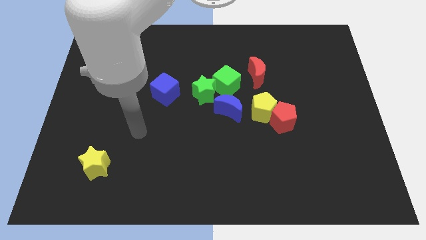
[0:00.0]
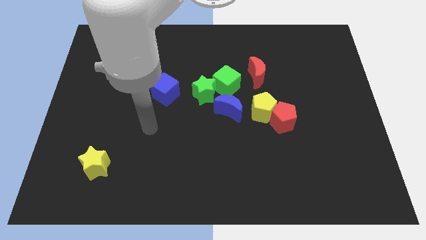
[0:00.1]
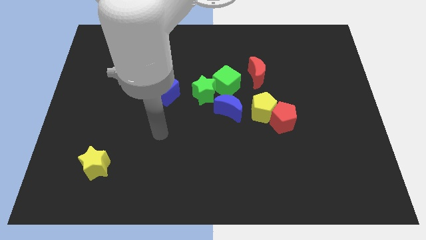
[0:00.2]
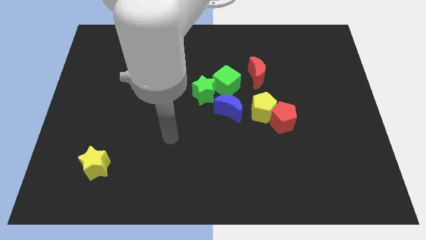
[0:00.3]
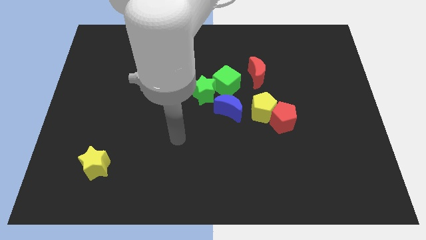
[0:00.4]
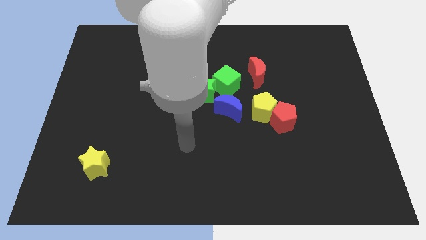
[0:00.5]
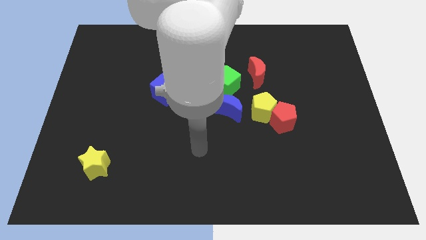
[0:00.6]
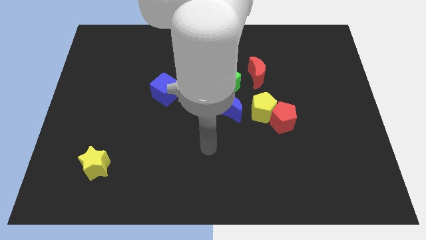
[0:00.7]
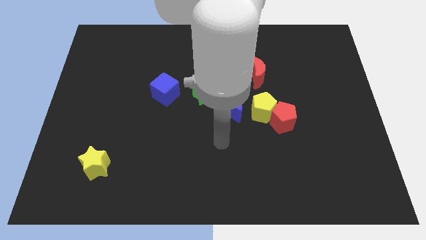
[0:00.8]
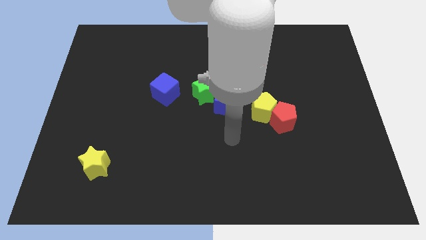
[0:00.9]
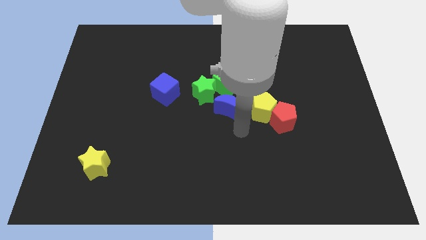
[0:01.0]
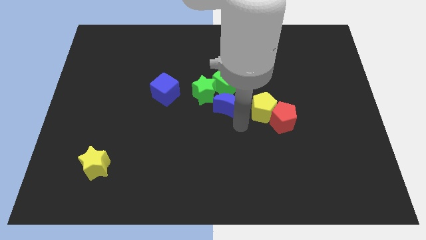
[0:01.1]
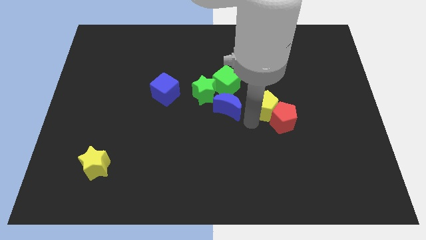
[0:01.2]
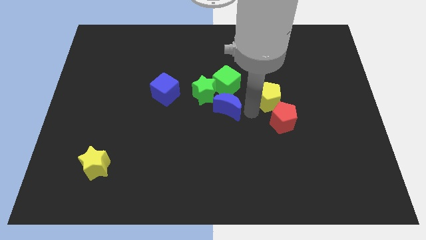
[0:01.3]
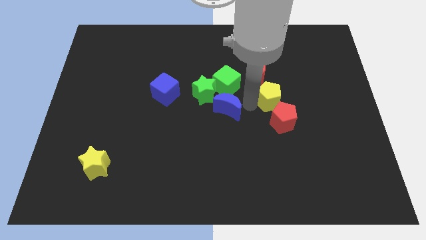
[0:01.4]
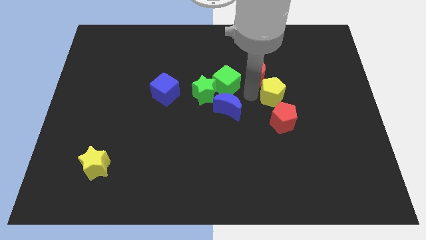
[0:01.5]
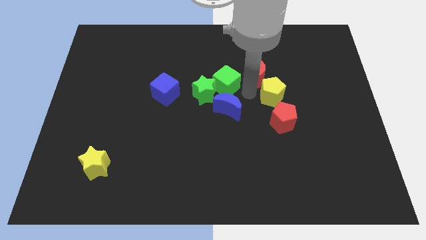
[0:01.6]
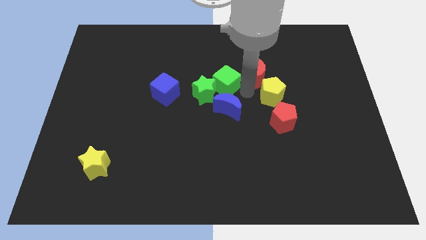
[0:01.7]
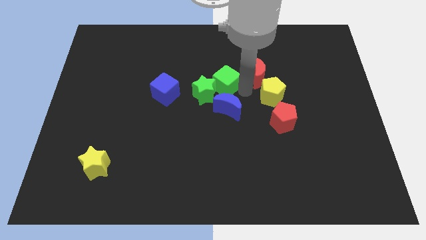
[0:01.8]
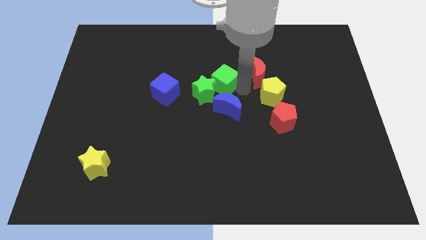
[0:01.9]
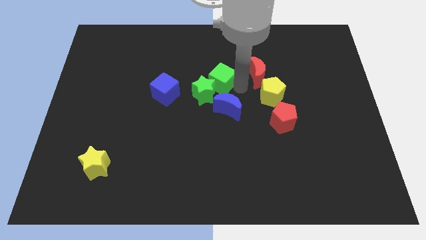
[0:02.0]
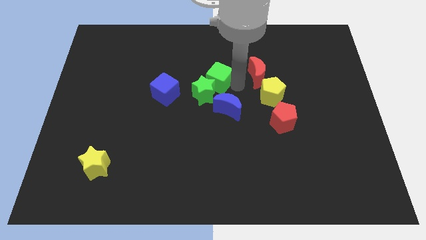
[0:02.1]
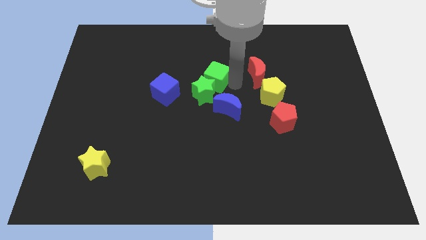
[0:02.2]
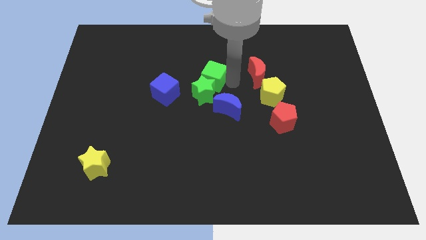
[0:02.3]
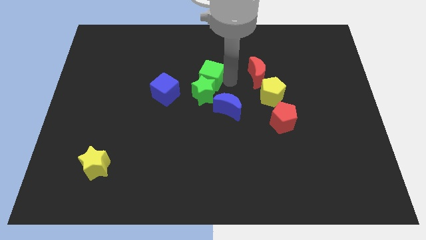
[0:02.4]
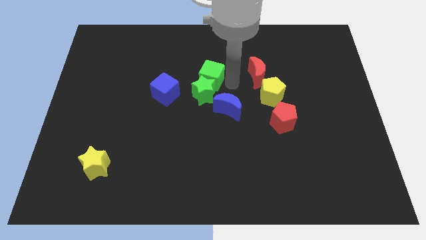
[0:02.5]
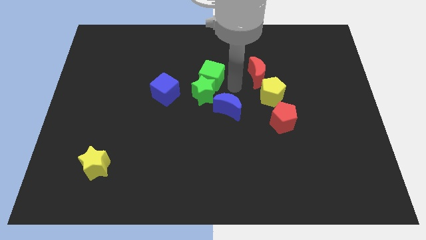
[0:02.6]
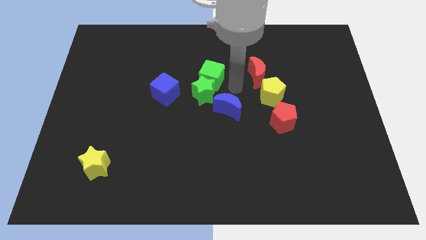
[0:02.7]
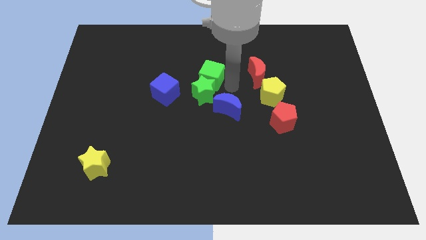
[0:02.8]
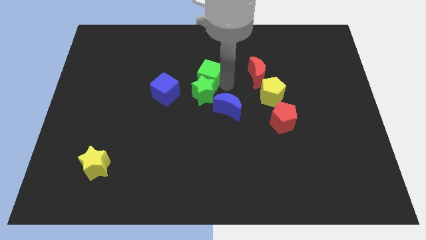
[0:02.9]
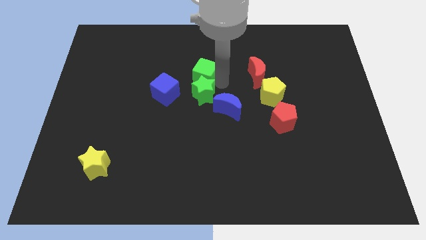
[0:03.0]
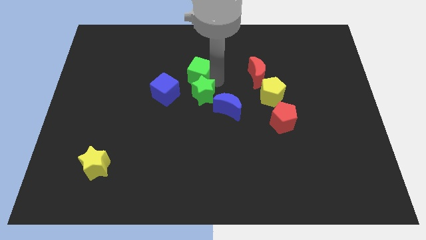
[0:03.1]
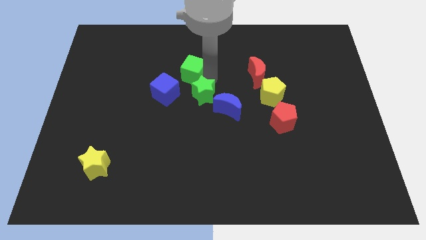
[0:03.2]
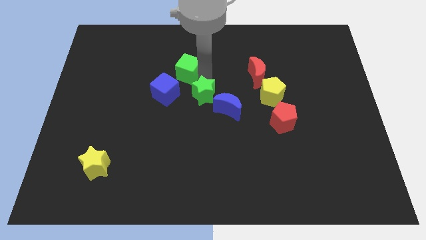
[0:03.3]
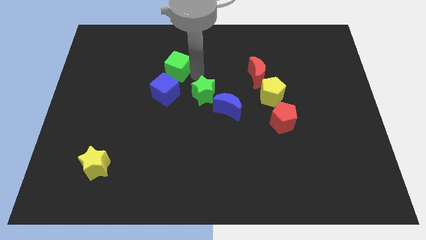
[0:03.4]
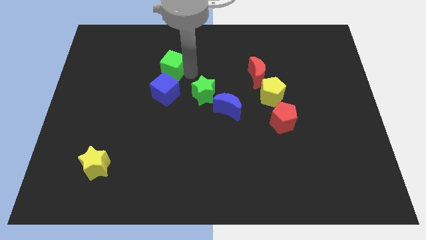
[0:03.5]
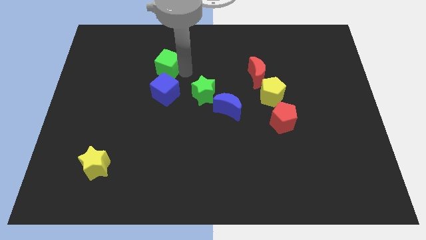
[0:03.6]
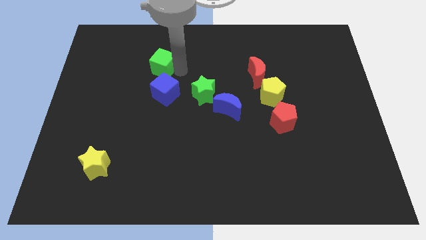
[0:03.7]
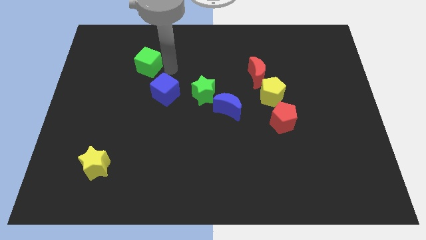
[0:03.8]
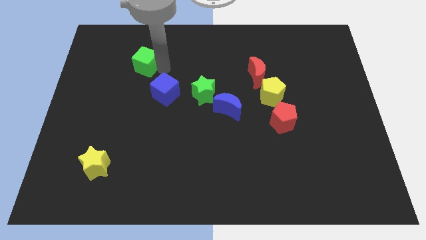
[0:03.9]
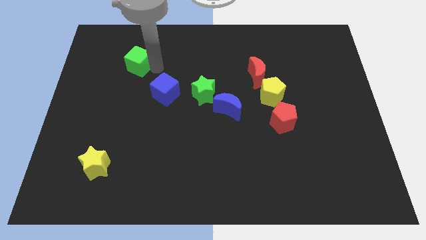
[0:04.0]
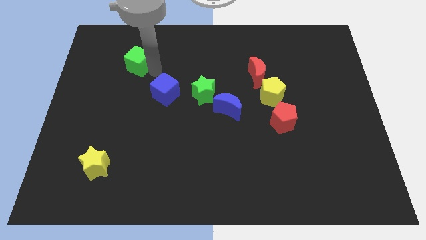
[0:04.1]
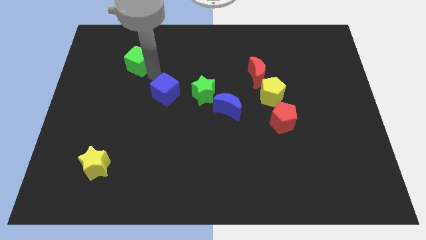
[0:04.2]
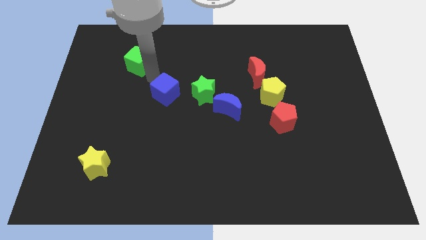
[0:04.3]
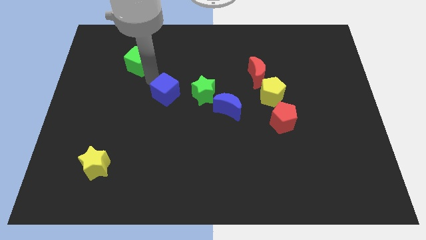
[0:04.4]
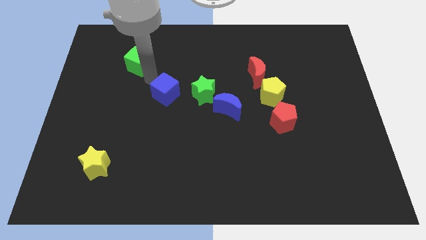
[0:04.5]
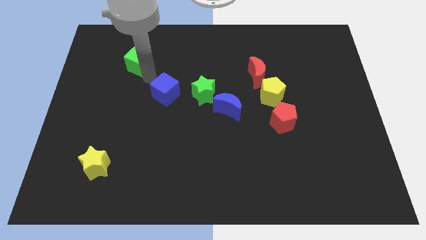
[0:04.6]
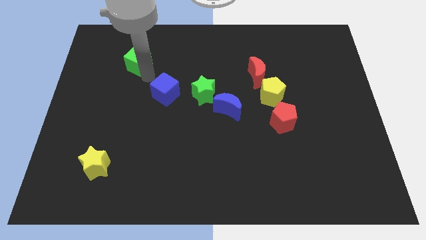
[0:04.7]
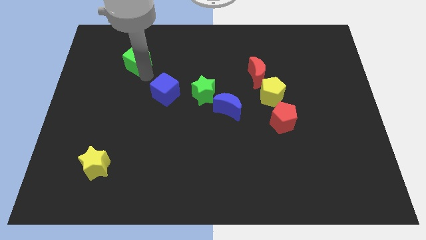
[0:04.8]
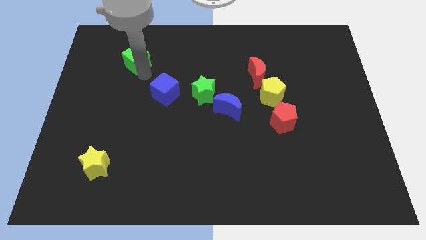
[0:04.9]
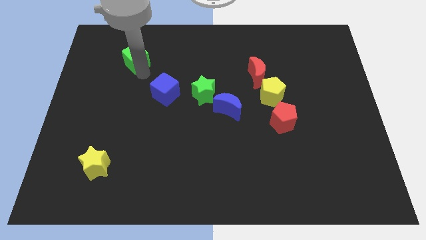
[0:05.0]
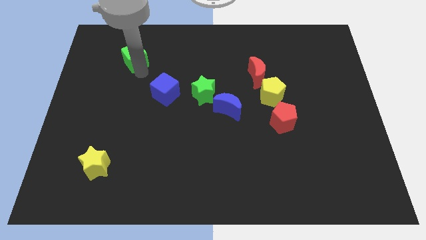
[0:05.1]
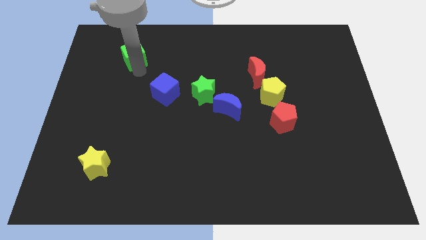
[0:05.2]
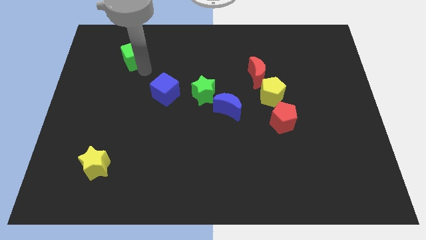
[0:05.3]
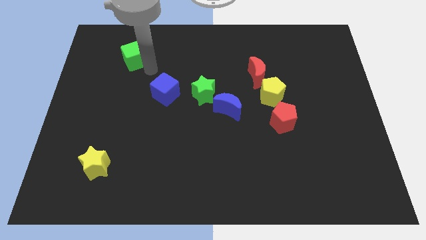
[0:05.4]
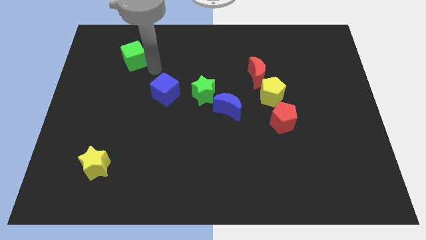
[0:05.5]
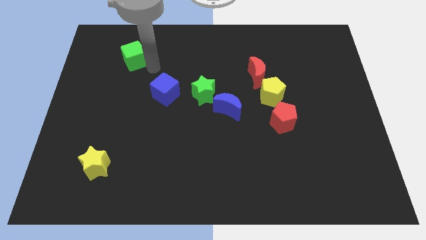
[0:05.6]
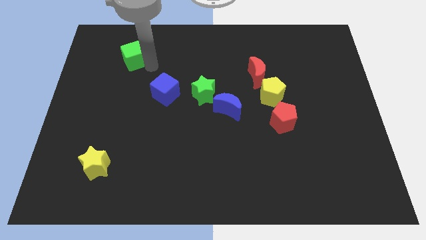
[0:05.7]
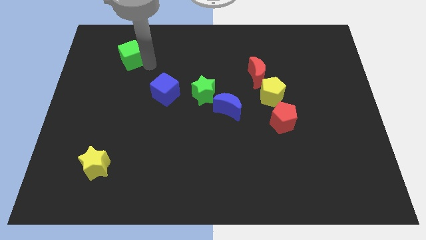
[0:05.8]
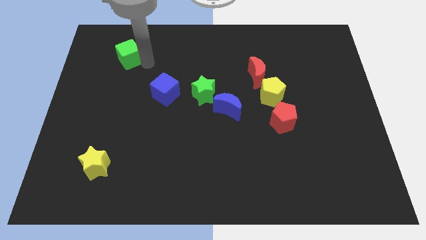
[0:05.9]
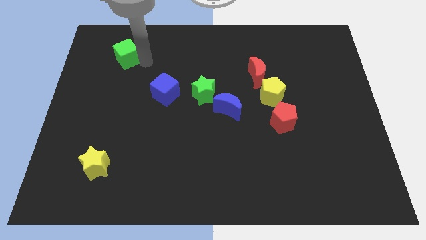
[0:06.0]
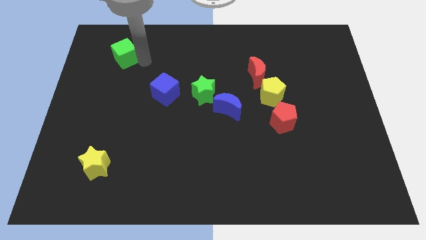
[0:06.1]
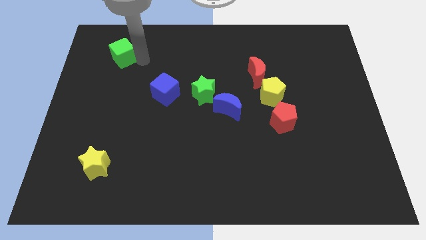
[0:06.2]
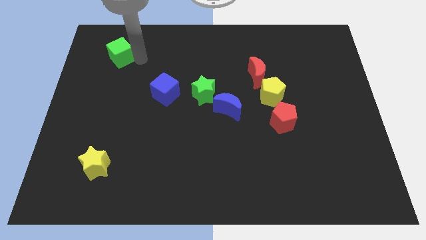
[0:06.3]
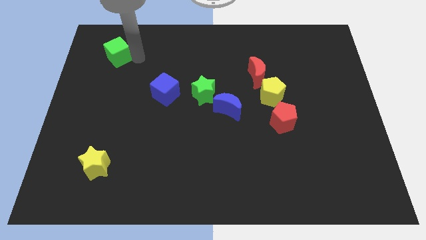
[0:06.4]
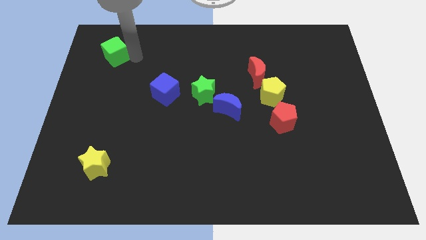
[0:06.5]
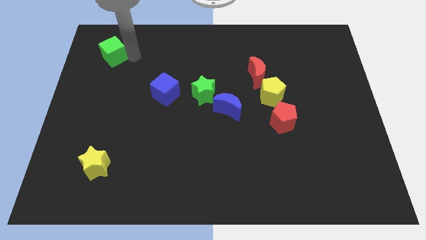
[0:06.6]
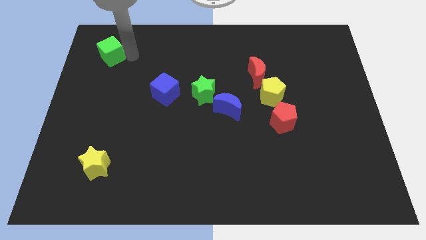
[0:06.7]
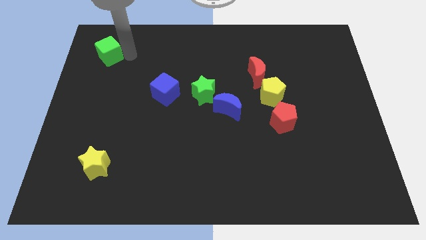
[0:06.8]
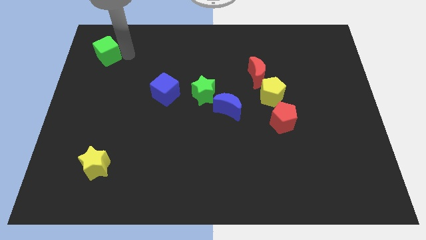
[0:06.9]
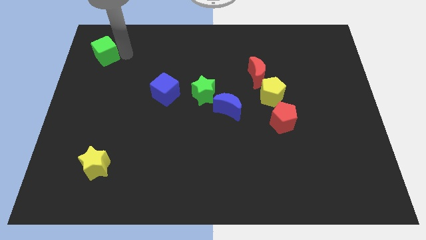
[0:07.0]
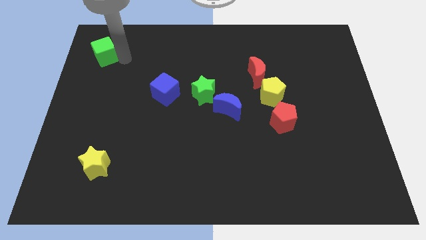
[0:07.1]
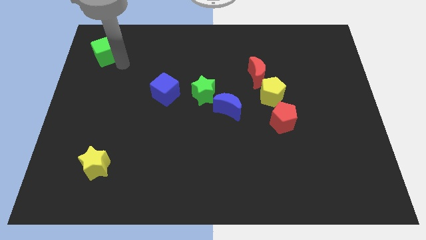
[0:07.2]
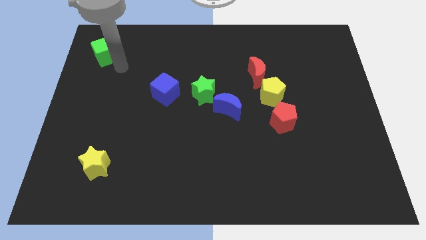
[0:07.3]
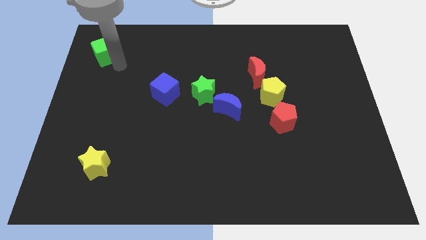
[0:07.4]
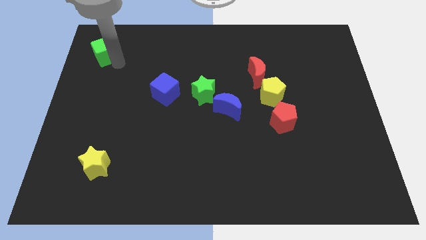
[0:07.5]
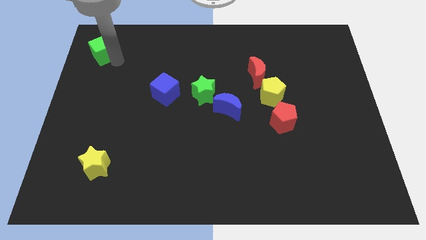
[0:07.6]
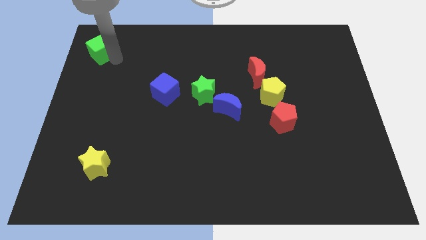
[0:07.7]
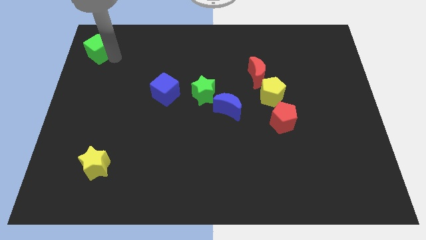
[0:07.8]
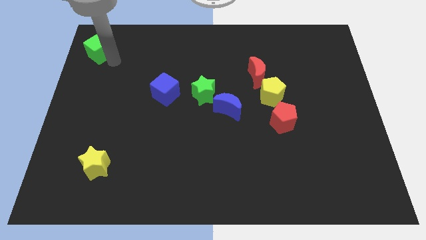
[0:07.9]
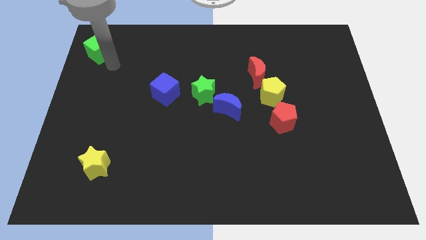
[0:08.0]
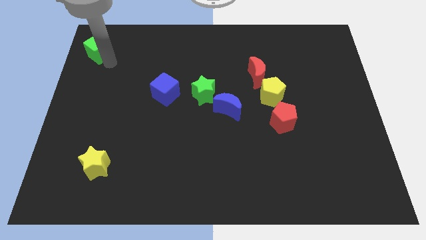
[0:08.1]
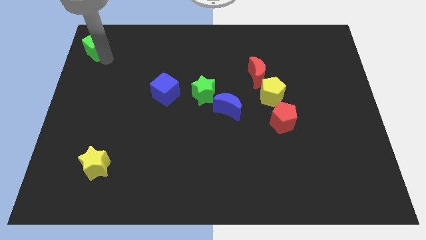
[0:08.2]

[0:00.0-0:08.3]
put the green cube to the top left of the board
